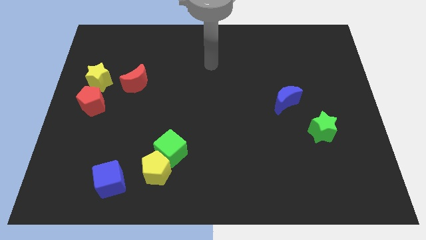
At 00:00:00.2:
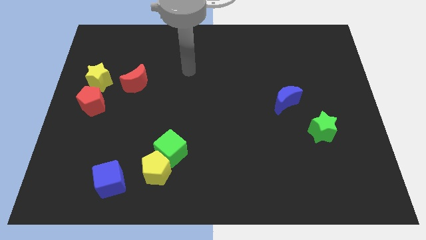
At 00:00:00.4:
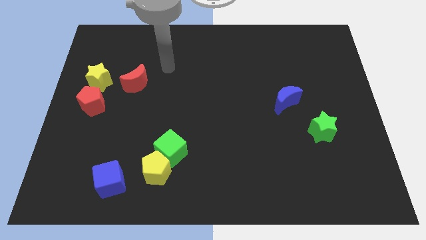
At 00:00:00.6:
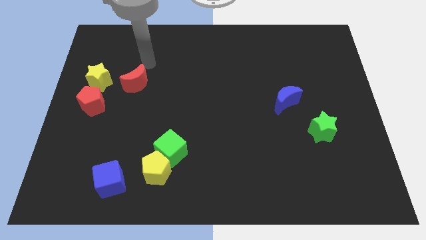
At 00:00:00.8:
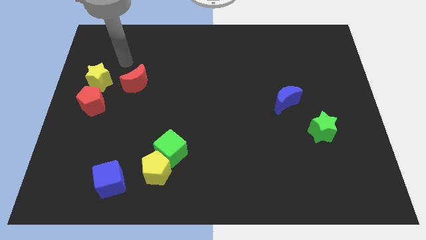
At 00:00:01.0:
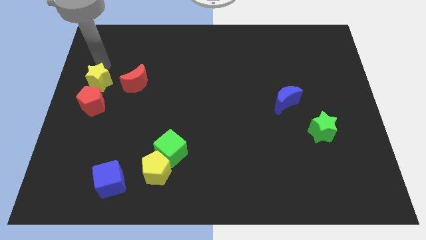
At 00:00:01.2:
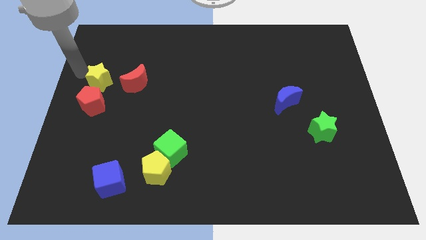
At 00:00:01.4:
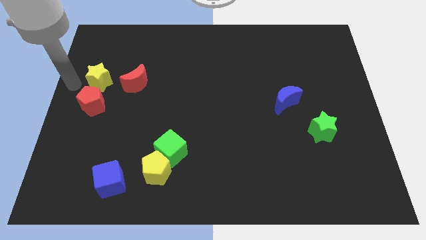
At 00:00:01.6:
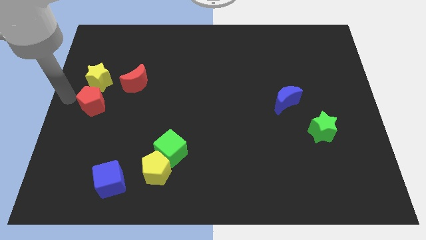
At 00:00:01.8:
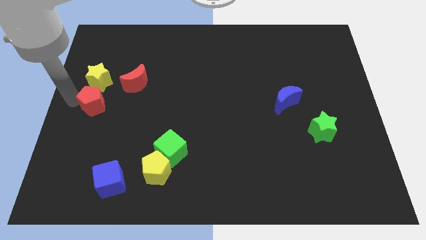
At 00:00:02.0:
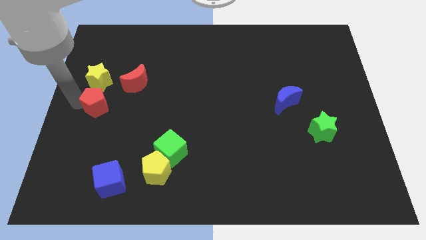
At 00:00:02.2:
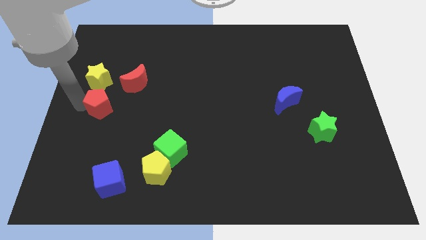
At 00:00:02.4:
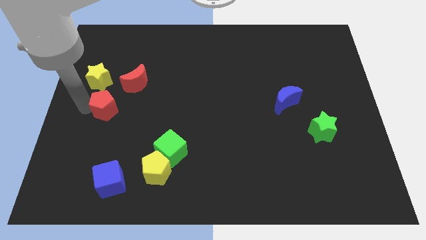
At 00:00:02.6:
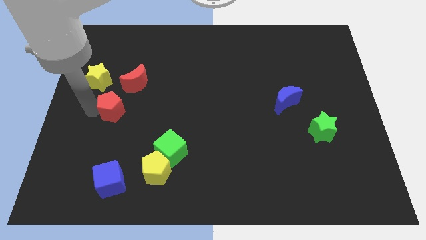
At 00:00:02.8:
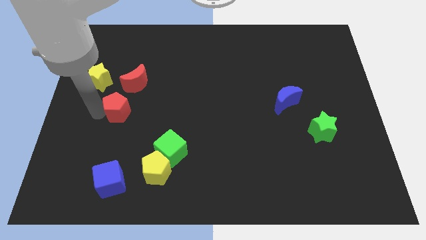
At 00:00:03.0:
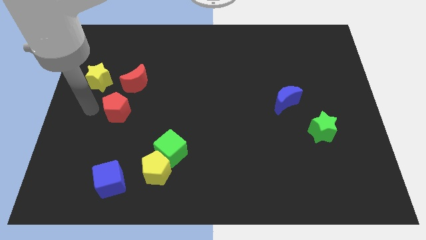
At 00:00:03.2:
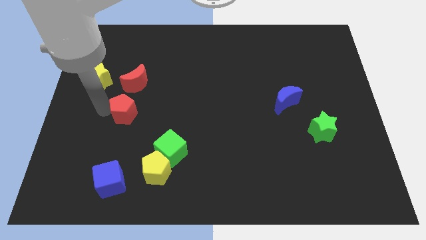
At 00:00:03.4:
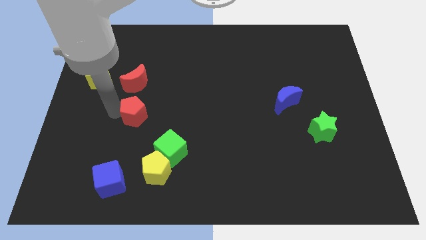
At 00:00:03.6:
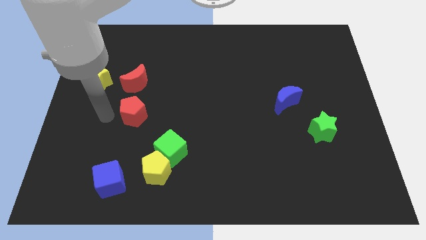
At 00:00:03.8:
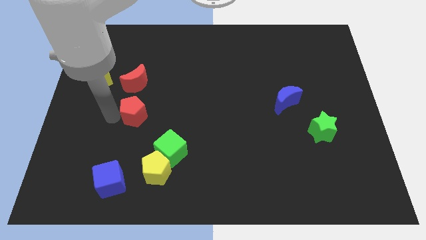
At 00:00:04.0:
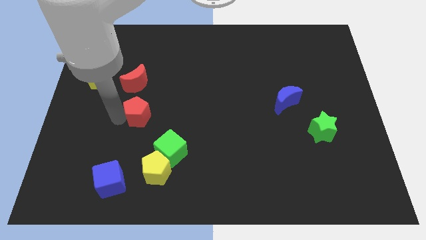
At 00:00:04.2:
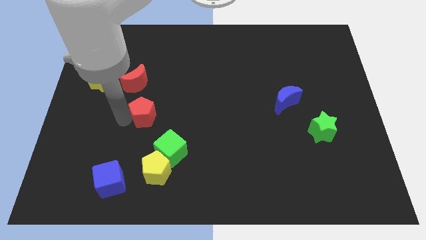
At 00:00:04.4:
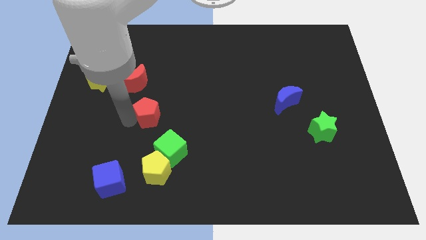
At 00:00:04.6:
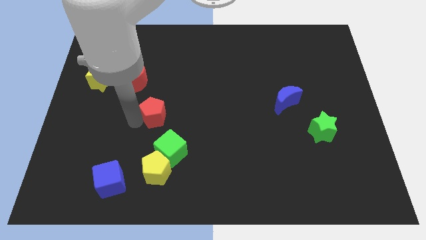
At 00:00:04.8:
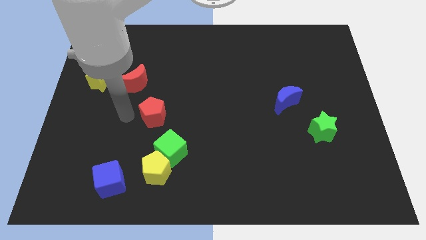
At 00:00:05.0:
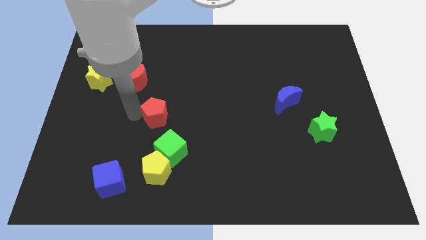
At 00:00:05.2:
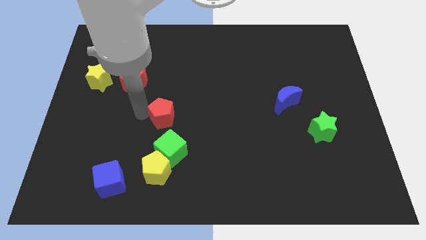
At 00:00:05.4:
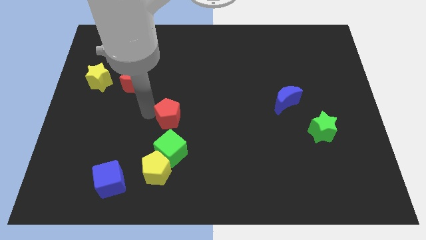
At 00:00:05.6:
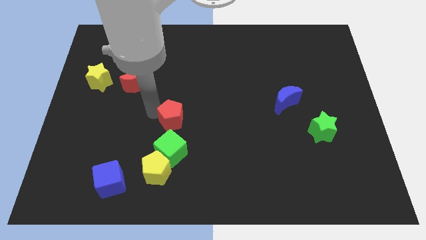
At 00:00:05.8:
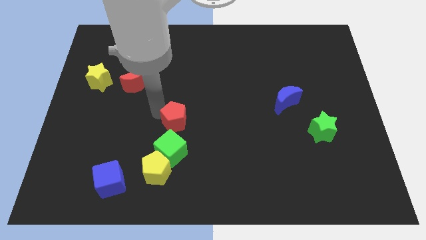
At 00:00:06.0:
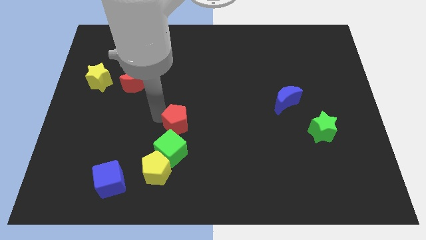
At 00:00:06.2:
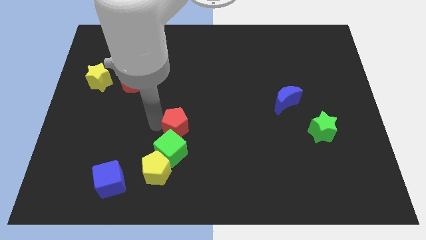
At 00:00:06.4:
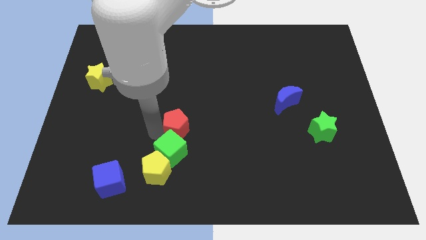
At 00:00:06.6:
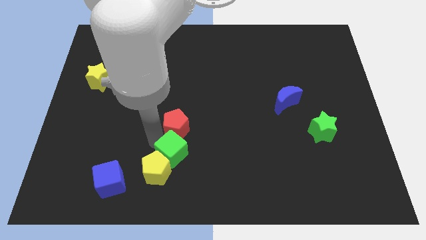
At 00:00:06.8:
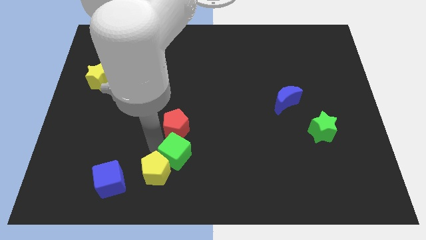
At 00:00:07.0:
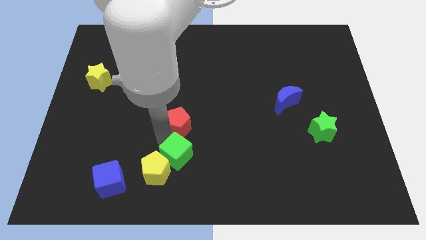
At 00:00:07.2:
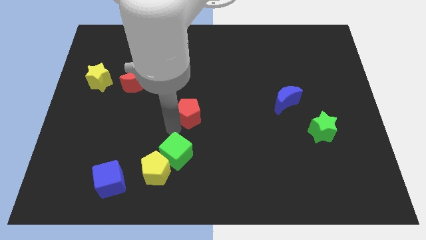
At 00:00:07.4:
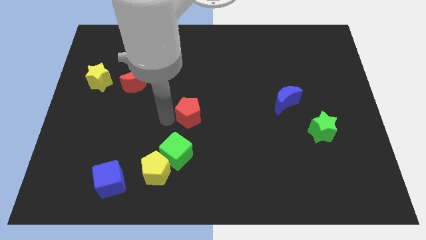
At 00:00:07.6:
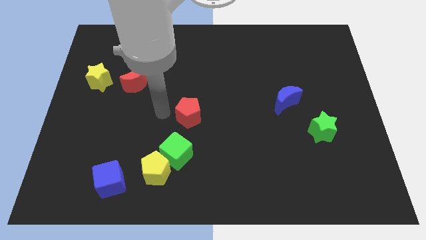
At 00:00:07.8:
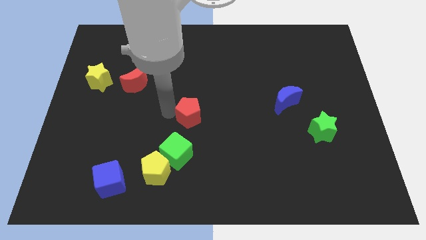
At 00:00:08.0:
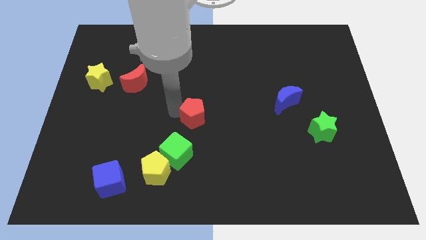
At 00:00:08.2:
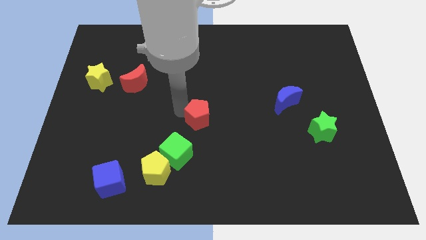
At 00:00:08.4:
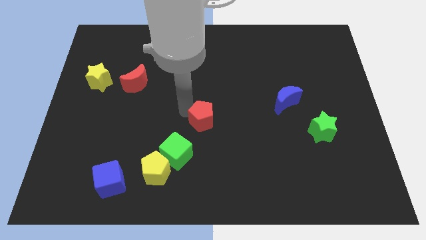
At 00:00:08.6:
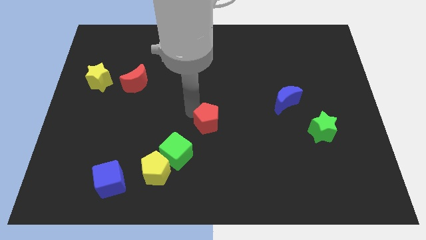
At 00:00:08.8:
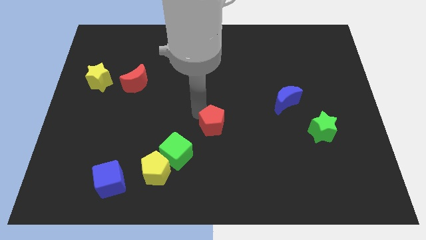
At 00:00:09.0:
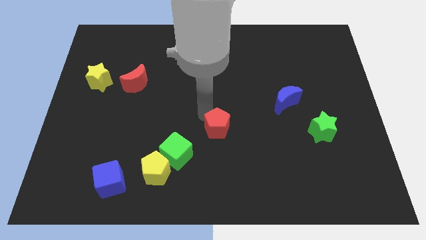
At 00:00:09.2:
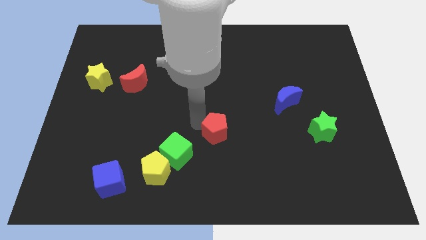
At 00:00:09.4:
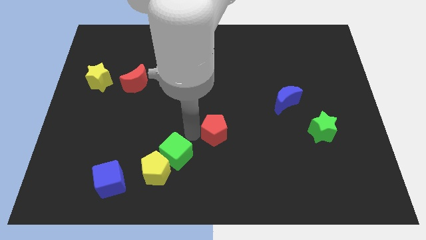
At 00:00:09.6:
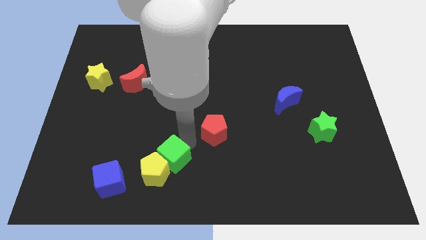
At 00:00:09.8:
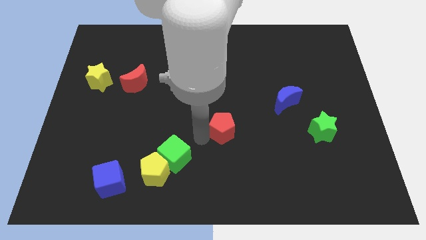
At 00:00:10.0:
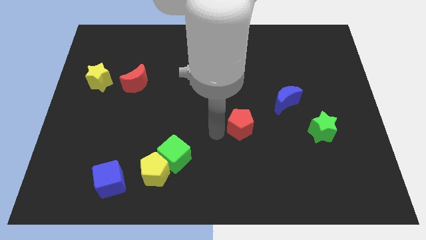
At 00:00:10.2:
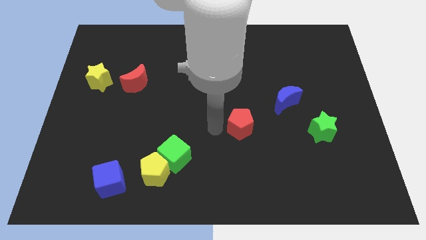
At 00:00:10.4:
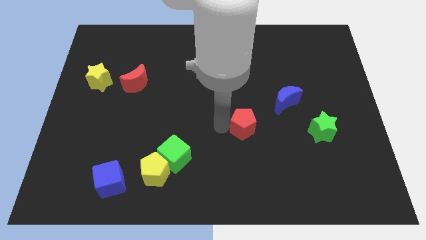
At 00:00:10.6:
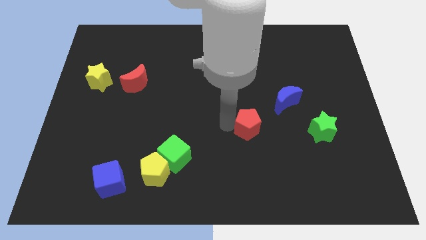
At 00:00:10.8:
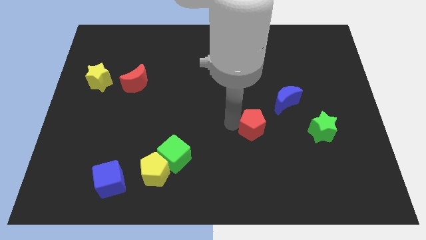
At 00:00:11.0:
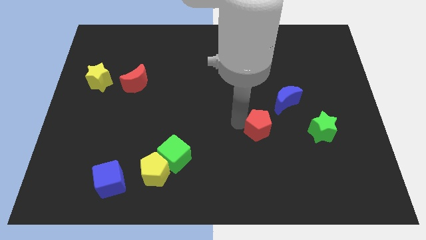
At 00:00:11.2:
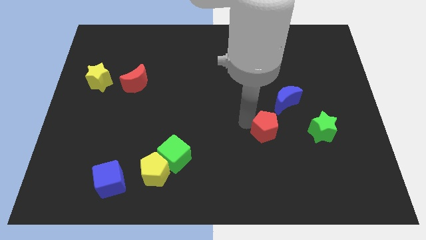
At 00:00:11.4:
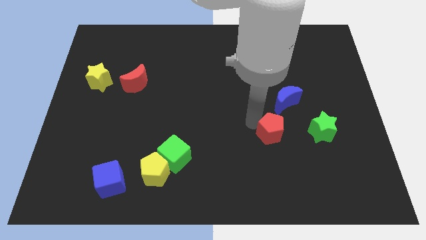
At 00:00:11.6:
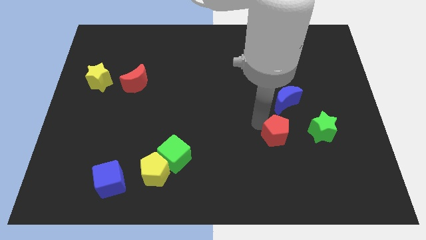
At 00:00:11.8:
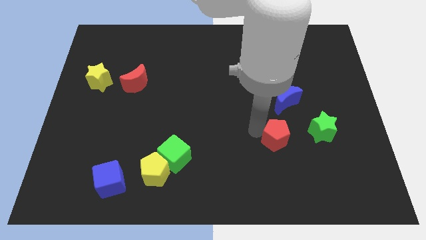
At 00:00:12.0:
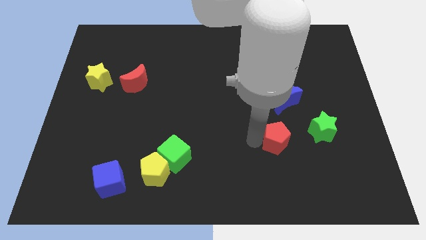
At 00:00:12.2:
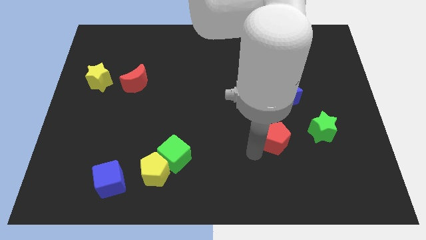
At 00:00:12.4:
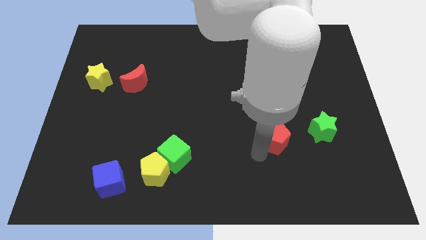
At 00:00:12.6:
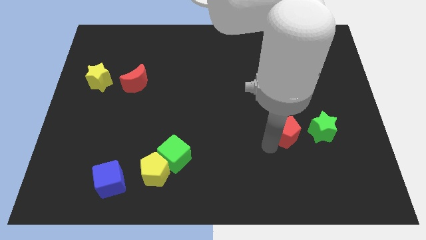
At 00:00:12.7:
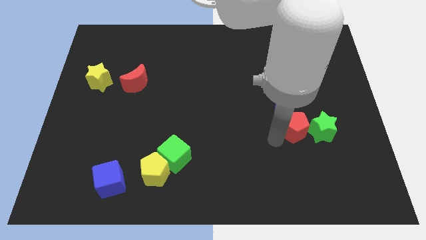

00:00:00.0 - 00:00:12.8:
push the red pentagon to the green star
